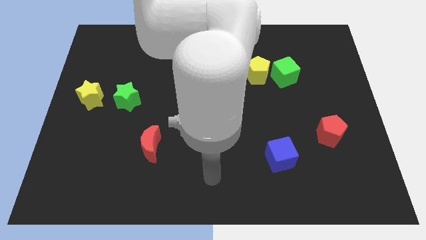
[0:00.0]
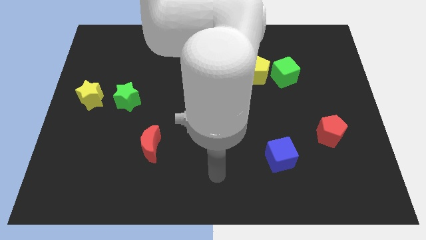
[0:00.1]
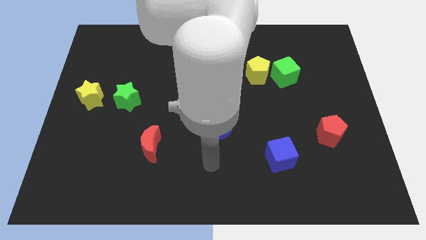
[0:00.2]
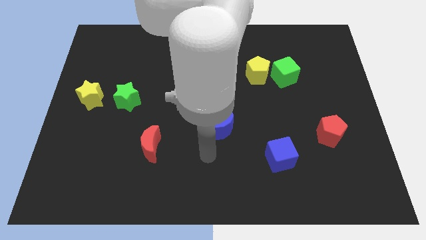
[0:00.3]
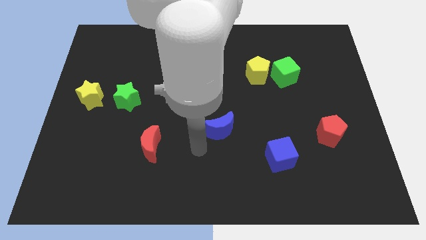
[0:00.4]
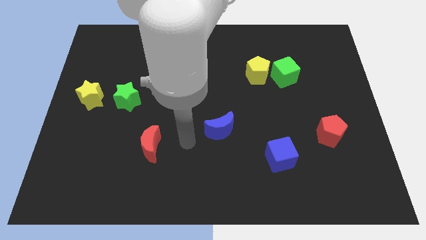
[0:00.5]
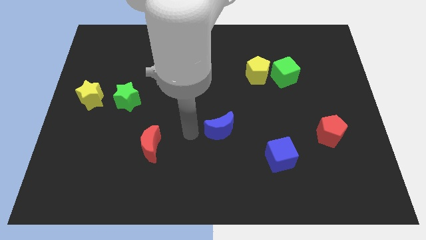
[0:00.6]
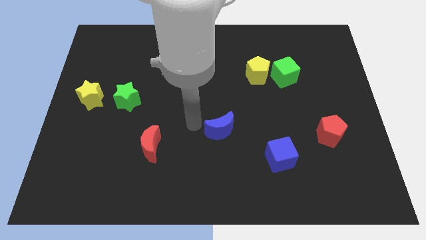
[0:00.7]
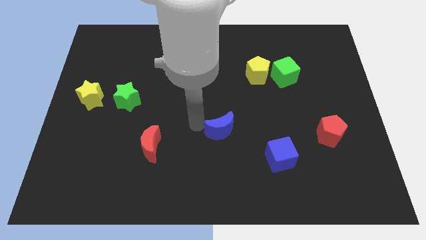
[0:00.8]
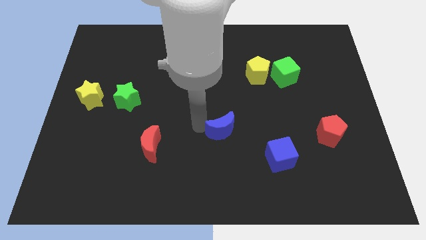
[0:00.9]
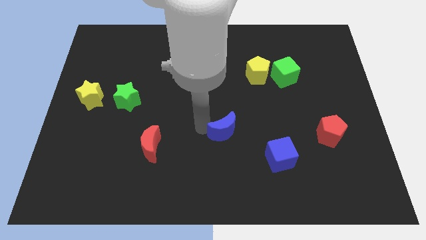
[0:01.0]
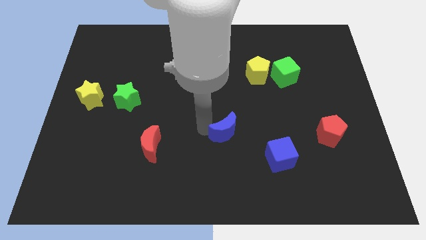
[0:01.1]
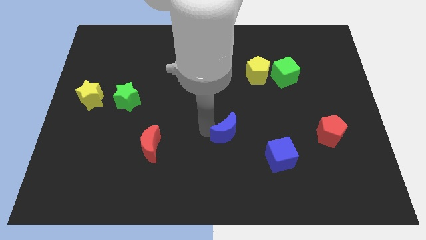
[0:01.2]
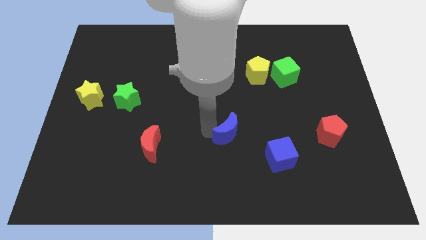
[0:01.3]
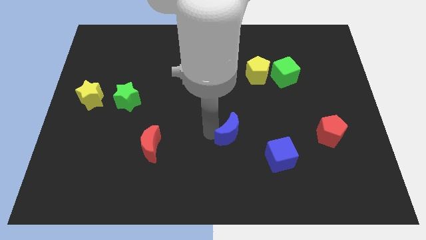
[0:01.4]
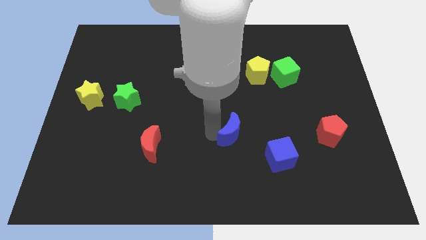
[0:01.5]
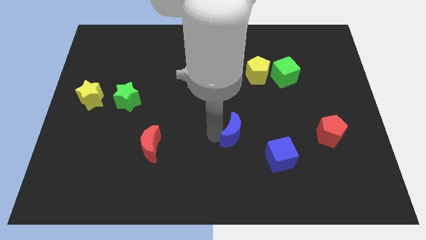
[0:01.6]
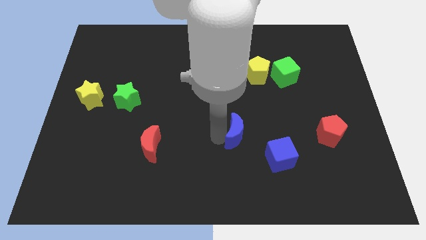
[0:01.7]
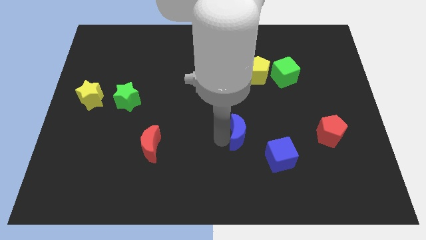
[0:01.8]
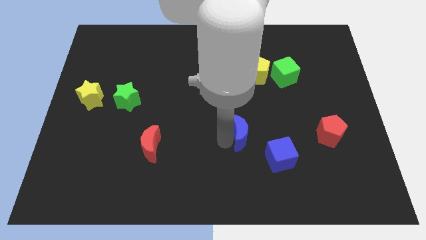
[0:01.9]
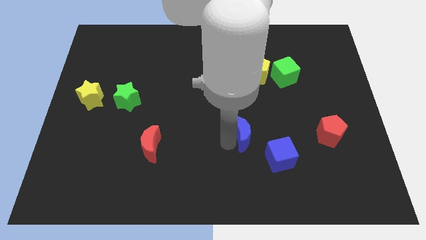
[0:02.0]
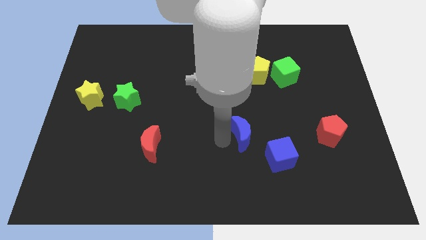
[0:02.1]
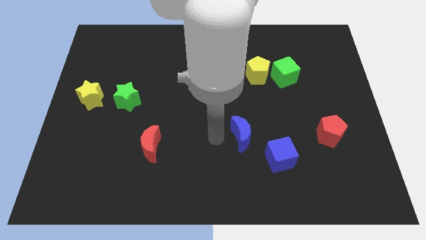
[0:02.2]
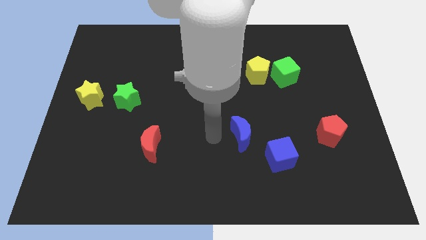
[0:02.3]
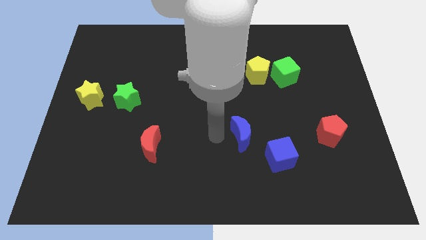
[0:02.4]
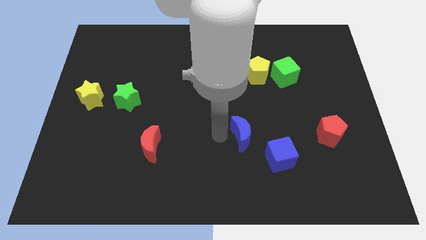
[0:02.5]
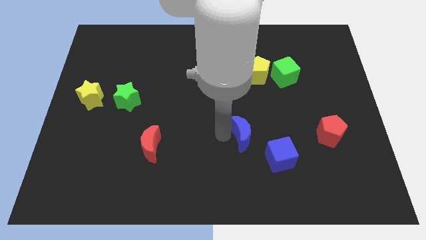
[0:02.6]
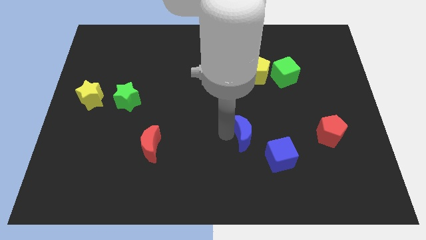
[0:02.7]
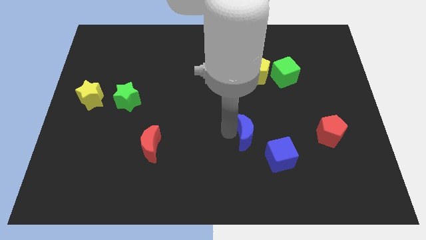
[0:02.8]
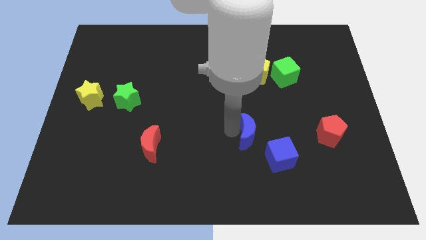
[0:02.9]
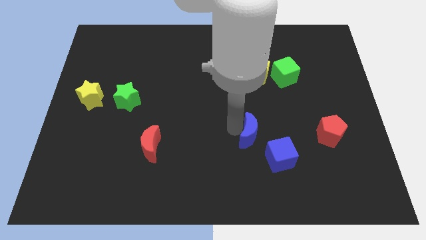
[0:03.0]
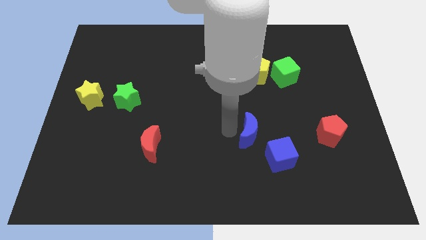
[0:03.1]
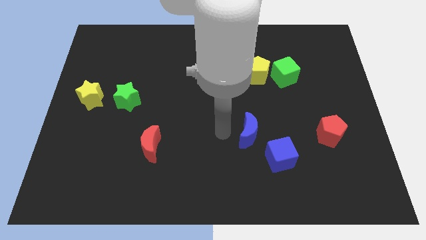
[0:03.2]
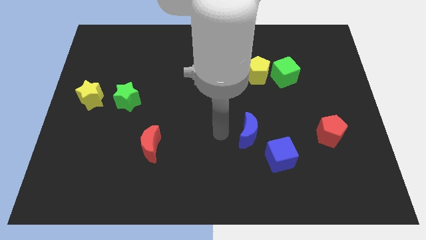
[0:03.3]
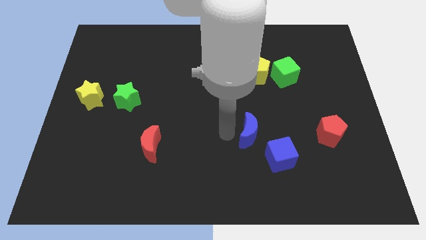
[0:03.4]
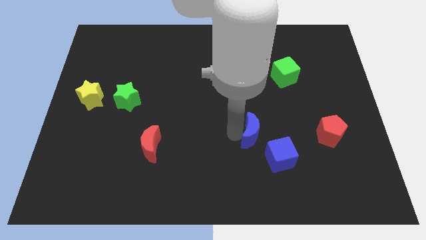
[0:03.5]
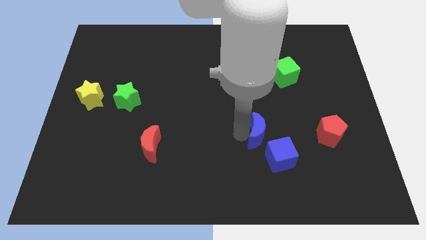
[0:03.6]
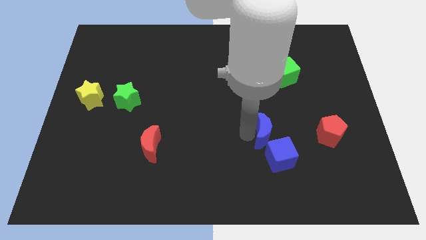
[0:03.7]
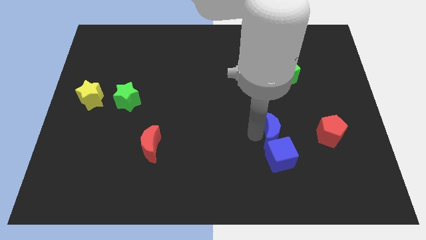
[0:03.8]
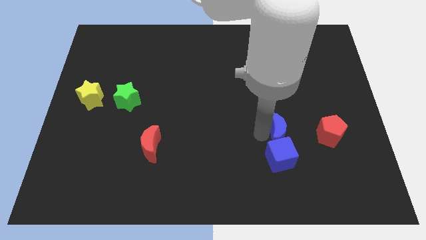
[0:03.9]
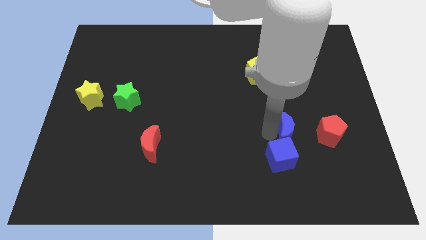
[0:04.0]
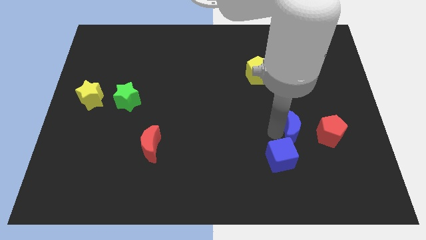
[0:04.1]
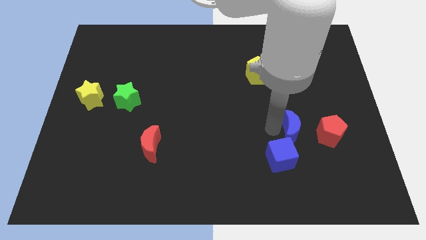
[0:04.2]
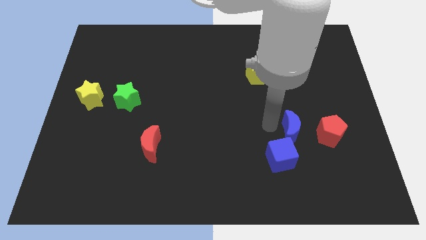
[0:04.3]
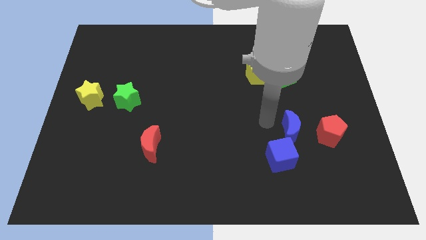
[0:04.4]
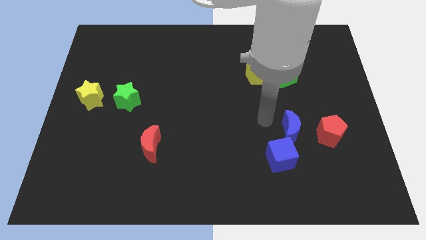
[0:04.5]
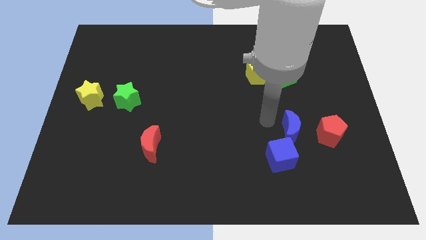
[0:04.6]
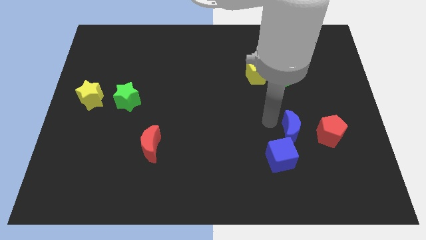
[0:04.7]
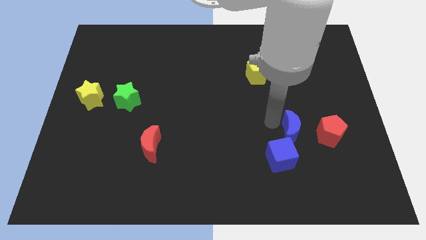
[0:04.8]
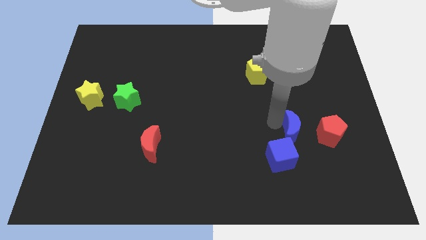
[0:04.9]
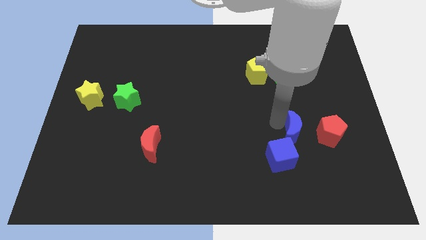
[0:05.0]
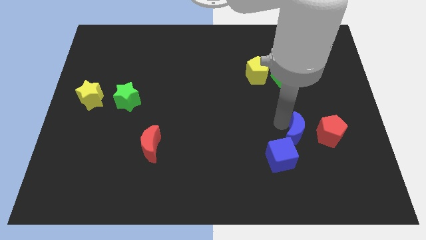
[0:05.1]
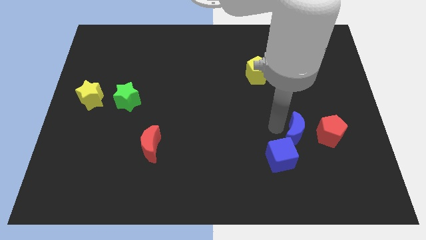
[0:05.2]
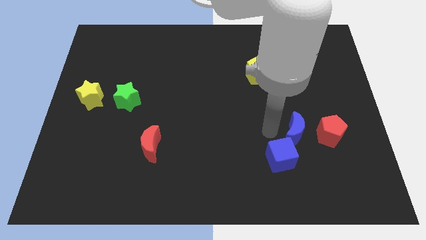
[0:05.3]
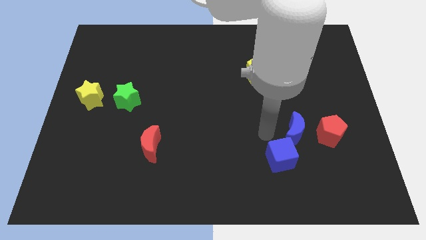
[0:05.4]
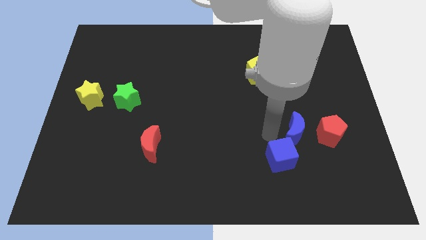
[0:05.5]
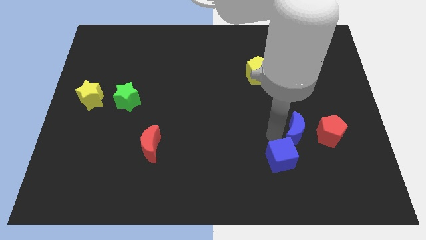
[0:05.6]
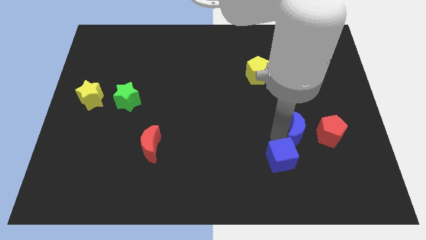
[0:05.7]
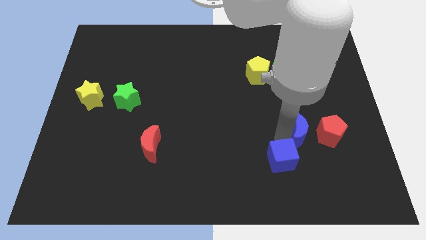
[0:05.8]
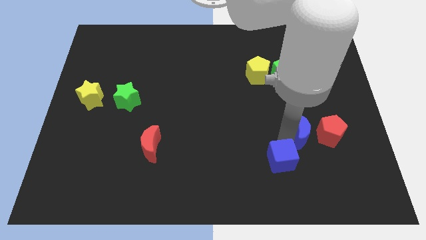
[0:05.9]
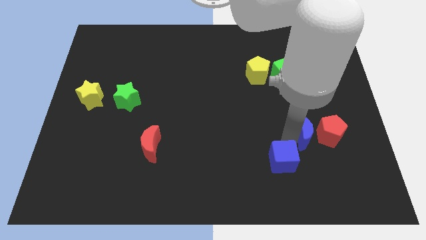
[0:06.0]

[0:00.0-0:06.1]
push the blue moon close to the red pentagon

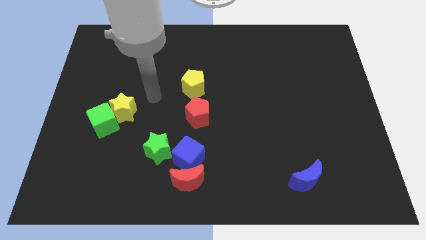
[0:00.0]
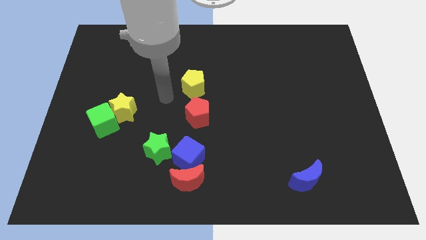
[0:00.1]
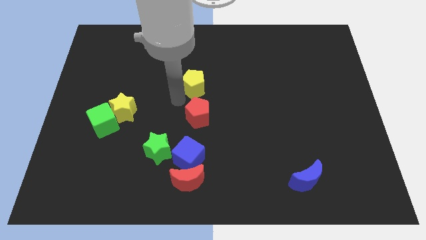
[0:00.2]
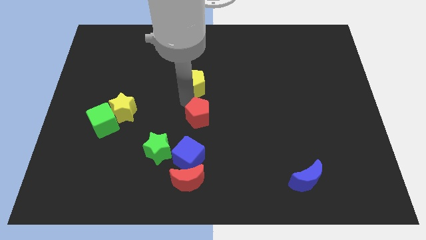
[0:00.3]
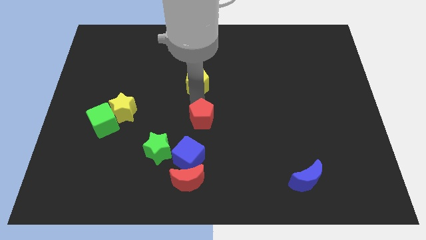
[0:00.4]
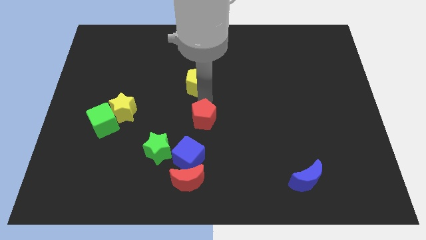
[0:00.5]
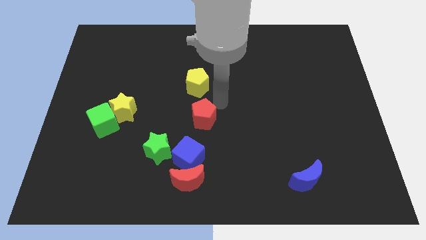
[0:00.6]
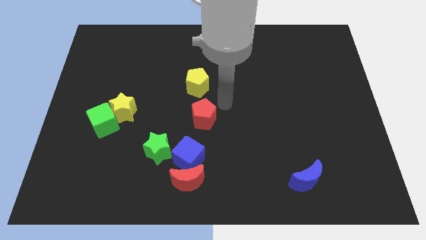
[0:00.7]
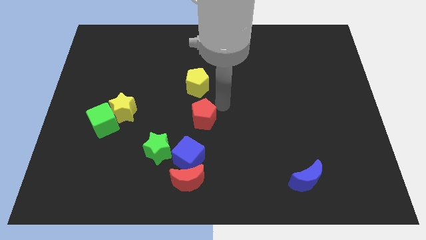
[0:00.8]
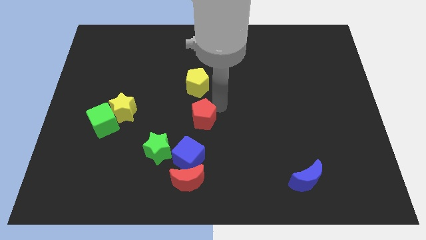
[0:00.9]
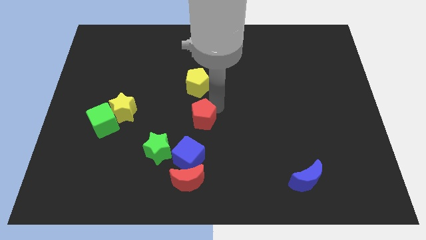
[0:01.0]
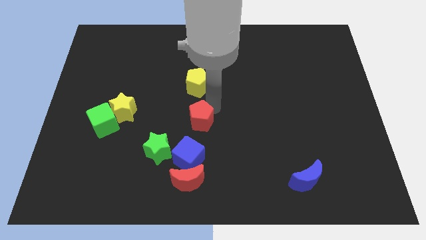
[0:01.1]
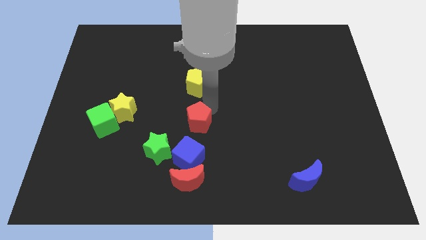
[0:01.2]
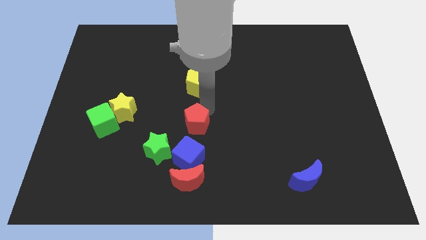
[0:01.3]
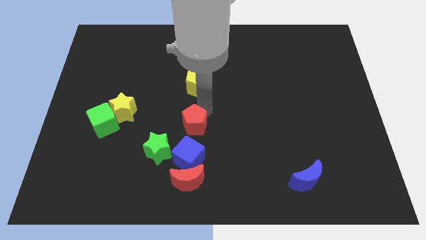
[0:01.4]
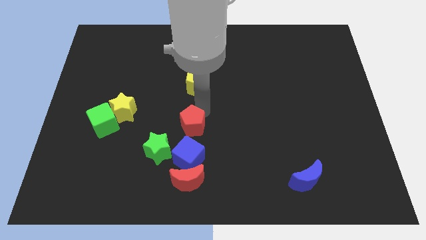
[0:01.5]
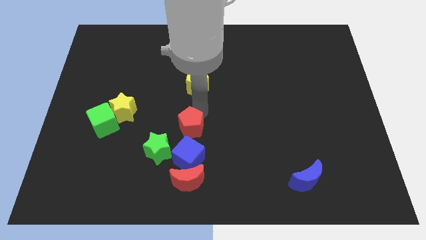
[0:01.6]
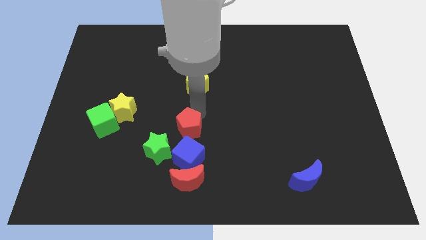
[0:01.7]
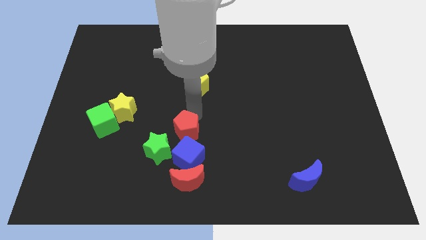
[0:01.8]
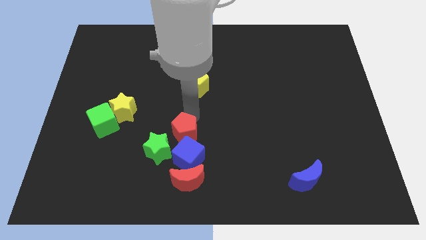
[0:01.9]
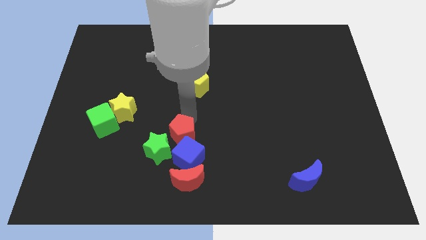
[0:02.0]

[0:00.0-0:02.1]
slide the red pentagon close to the green star
